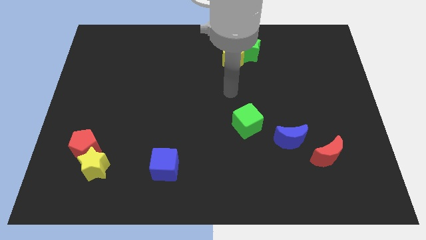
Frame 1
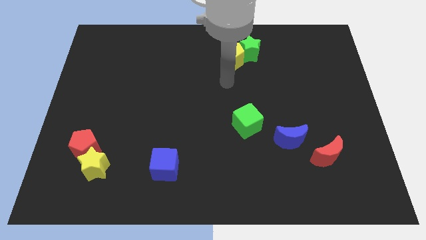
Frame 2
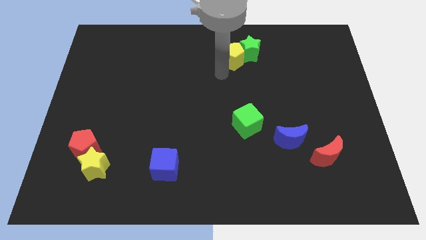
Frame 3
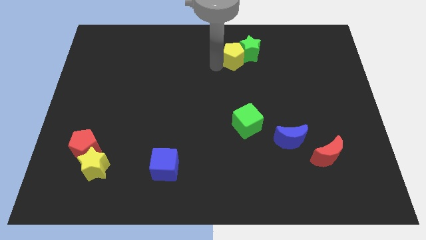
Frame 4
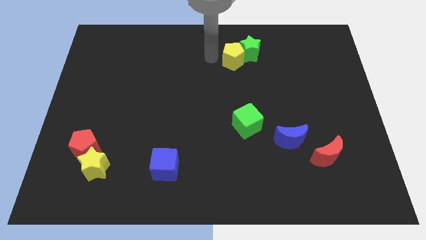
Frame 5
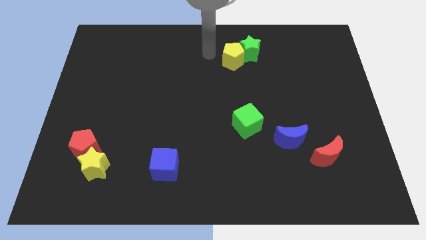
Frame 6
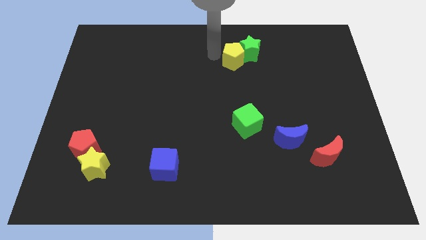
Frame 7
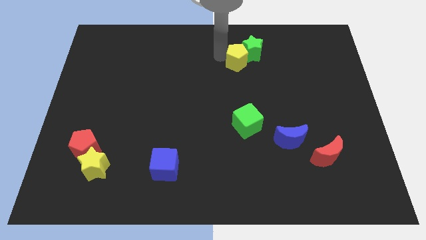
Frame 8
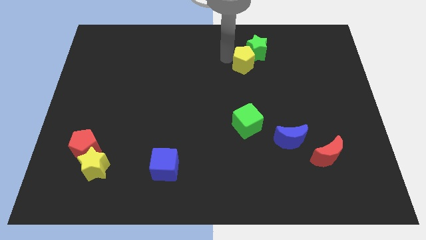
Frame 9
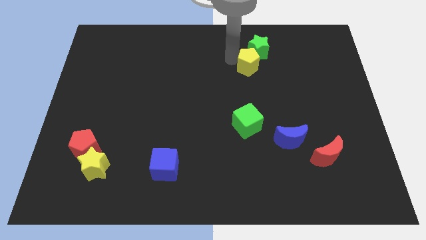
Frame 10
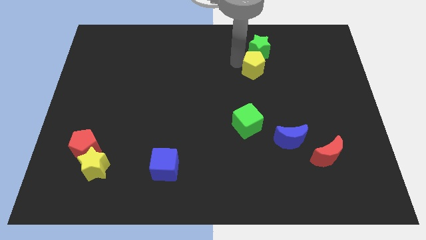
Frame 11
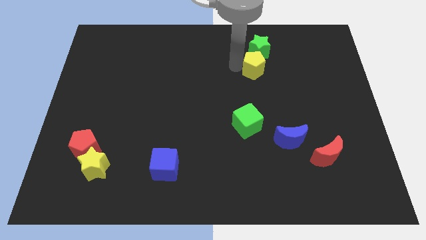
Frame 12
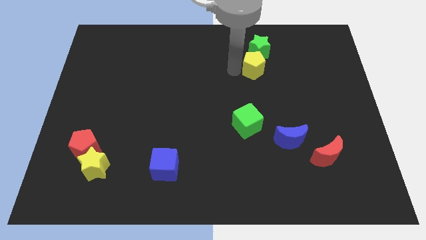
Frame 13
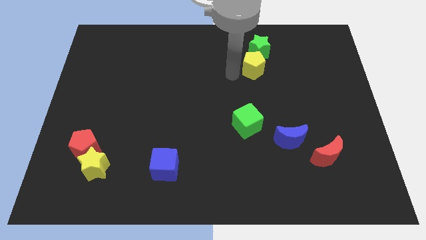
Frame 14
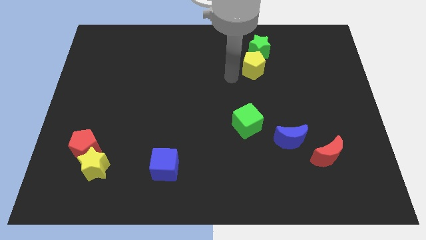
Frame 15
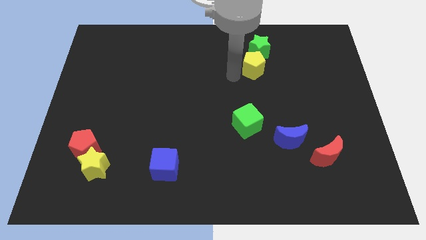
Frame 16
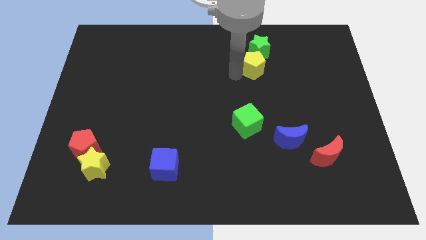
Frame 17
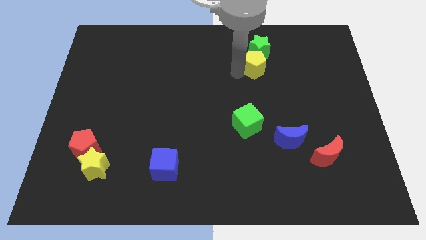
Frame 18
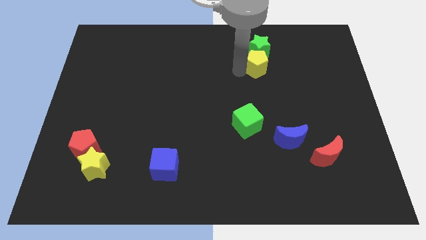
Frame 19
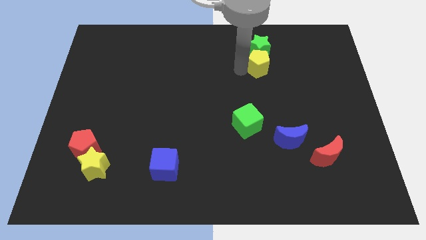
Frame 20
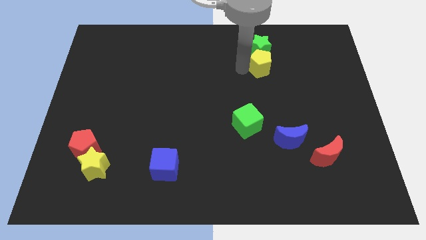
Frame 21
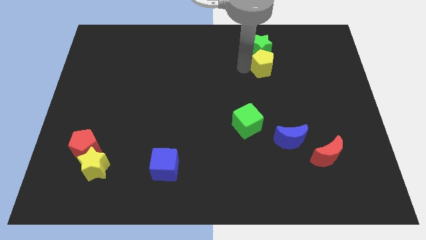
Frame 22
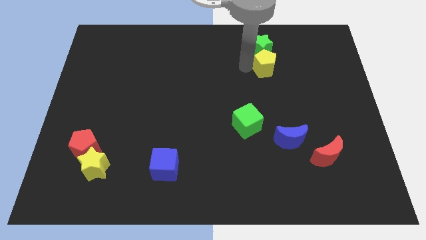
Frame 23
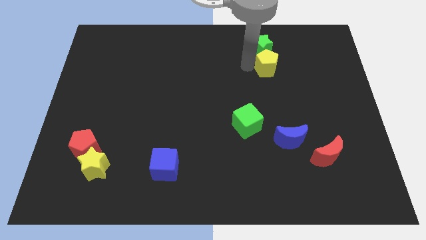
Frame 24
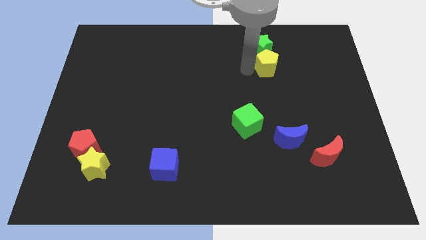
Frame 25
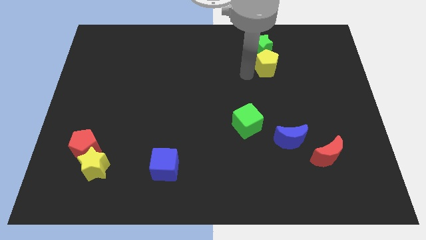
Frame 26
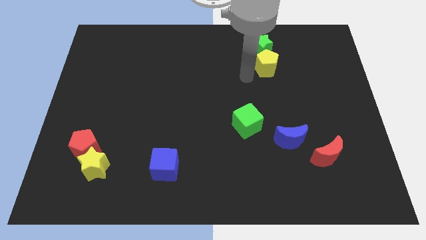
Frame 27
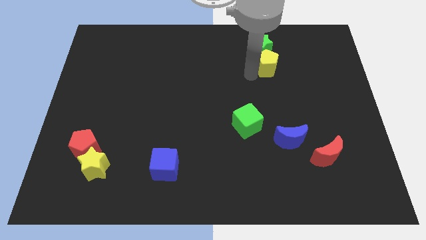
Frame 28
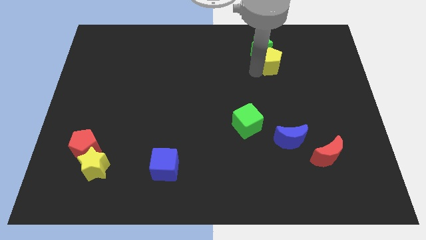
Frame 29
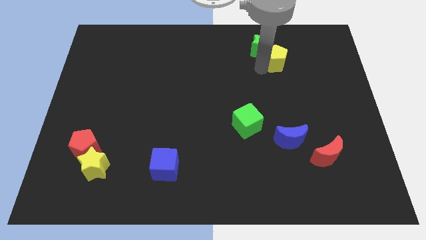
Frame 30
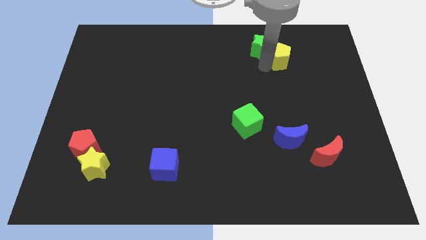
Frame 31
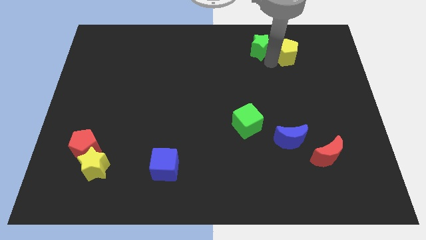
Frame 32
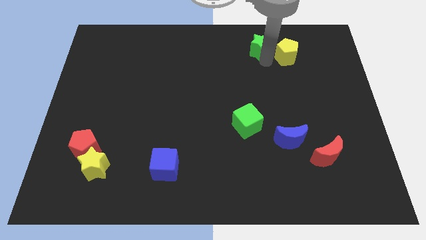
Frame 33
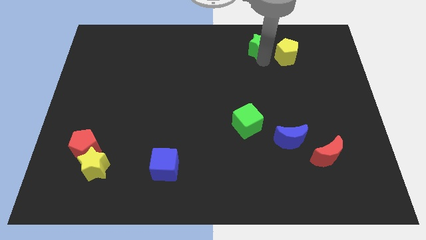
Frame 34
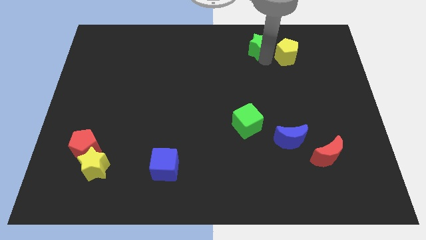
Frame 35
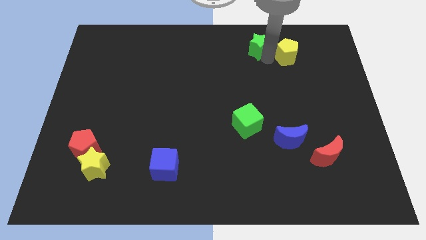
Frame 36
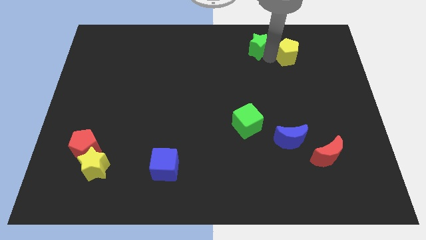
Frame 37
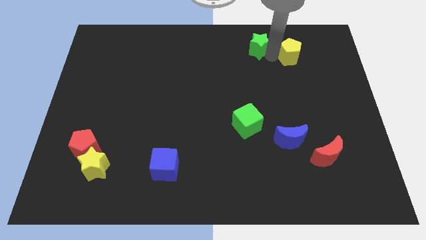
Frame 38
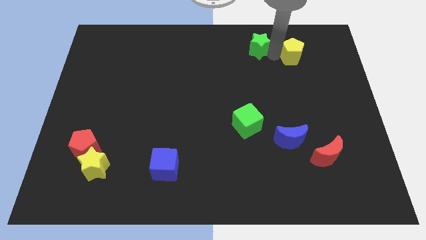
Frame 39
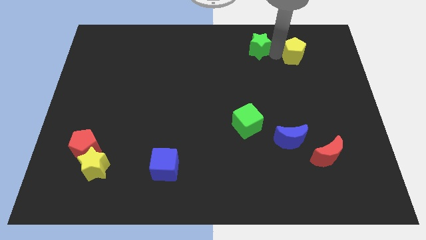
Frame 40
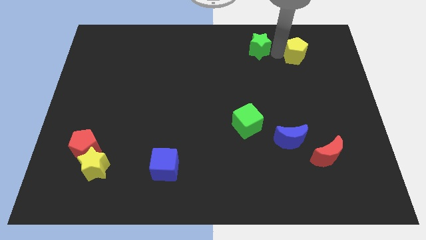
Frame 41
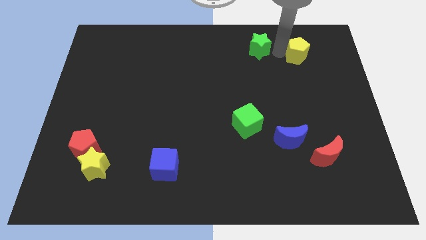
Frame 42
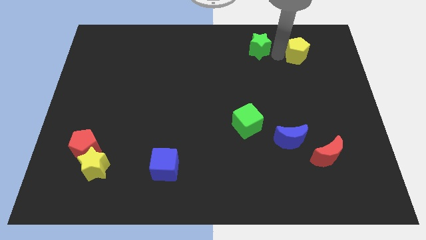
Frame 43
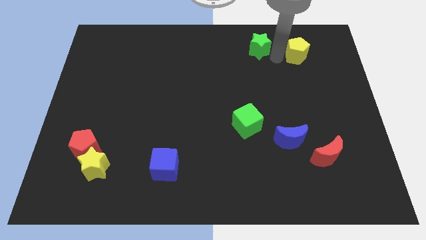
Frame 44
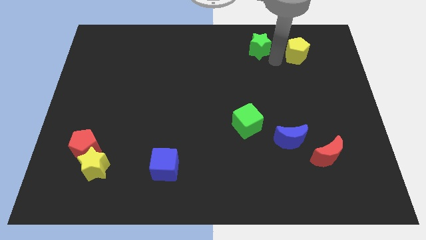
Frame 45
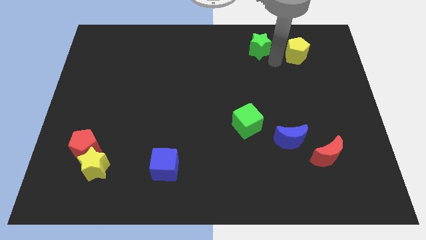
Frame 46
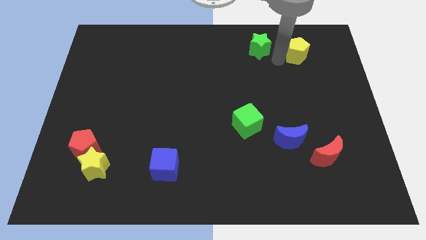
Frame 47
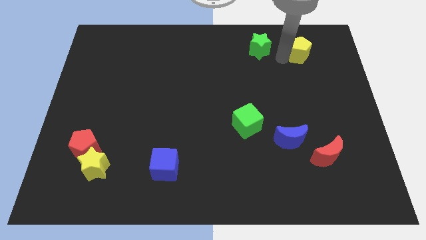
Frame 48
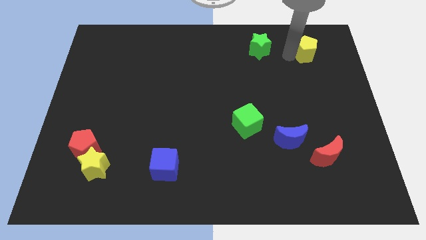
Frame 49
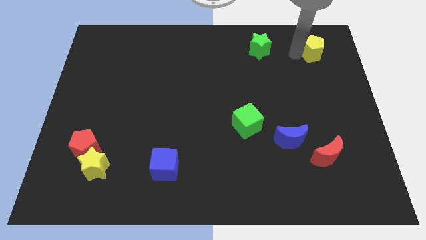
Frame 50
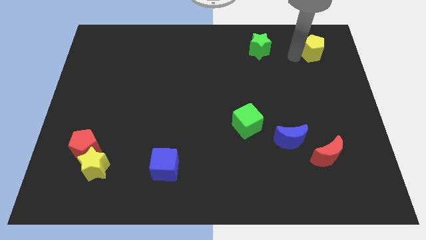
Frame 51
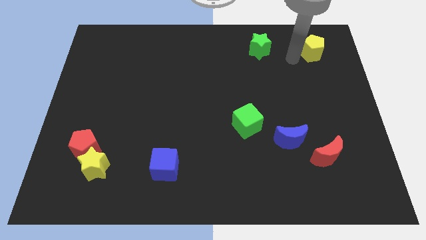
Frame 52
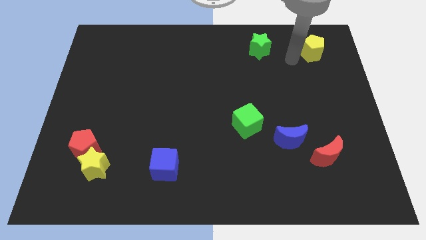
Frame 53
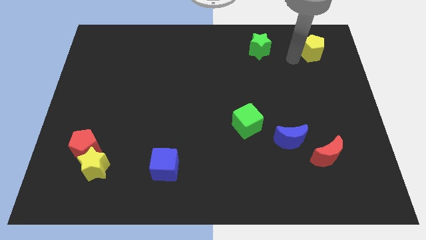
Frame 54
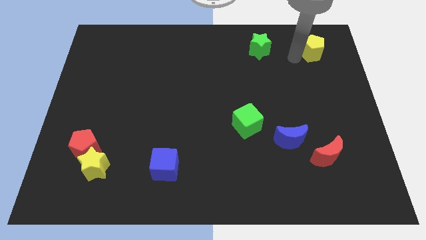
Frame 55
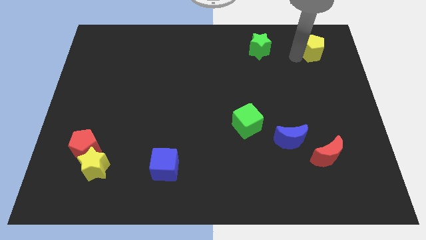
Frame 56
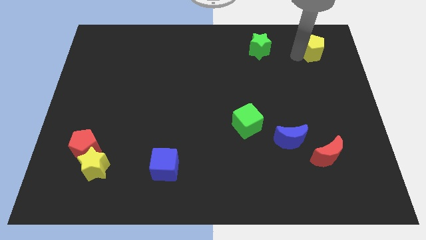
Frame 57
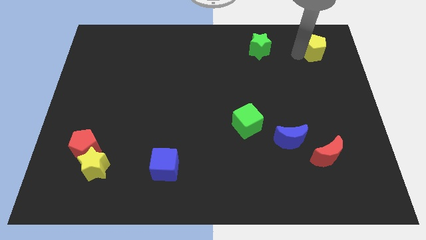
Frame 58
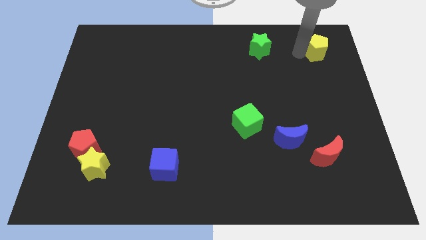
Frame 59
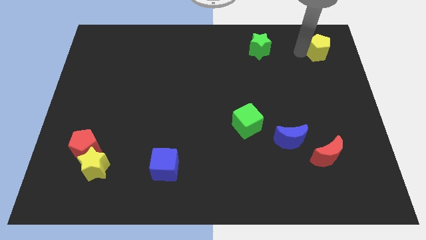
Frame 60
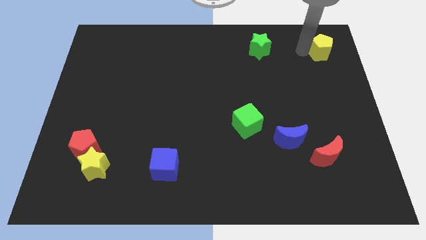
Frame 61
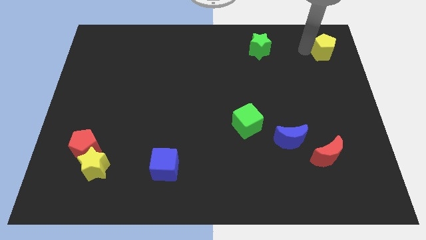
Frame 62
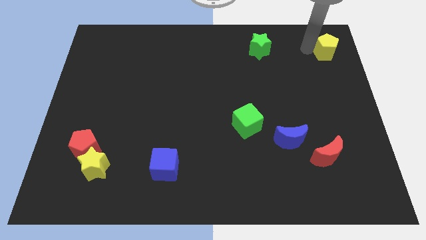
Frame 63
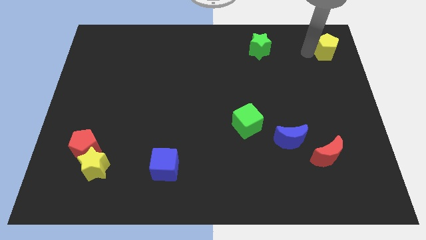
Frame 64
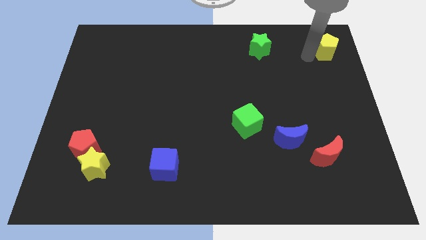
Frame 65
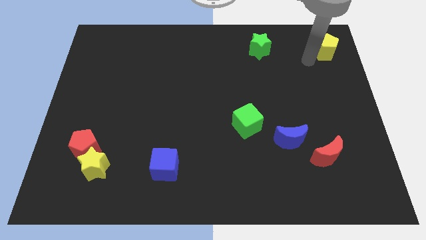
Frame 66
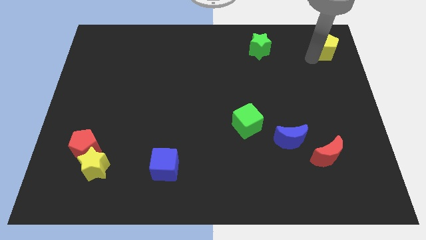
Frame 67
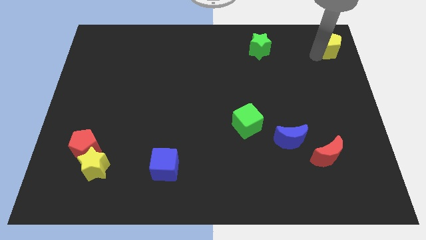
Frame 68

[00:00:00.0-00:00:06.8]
slide the yellow pentagon to the top right corner

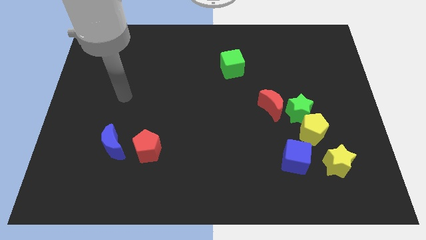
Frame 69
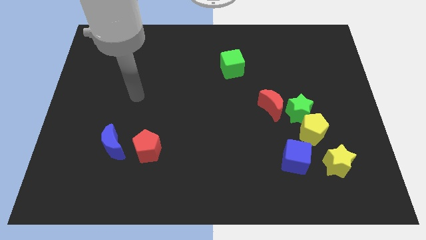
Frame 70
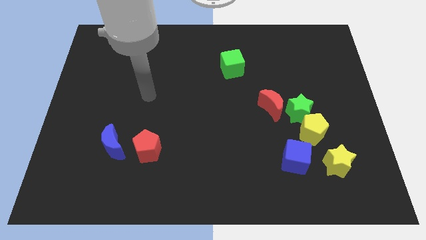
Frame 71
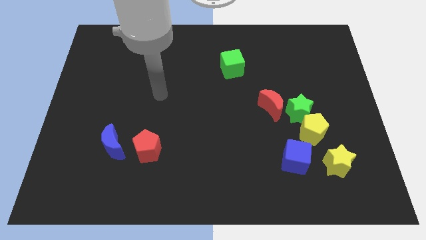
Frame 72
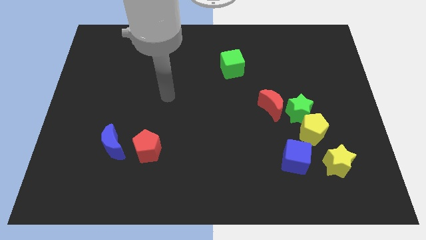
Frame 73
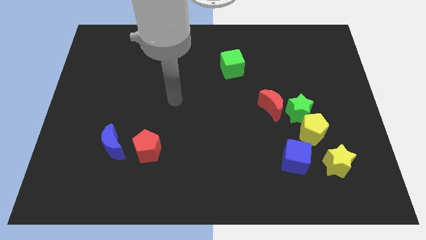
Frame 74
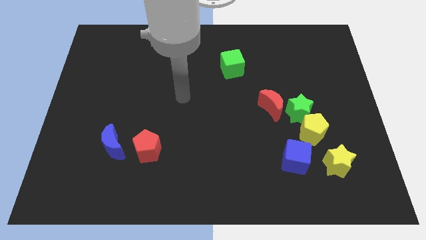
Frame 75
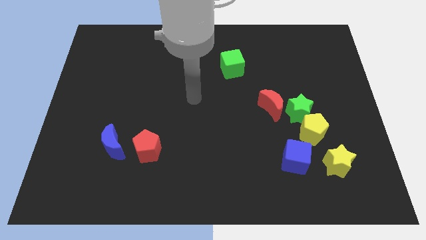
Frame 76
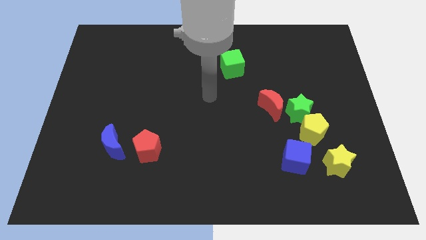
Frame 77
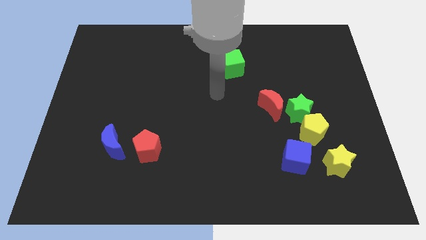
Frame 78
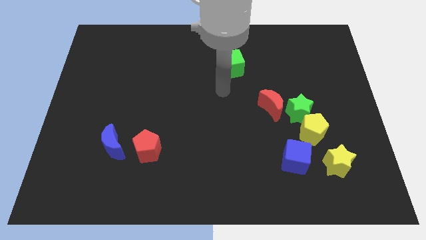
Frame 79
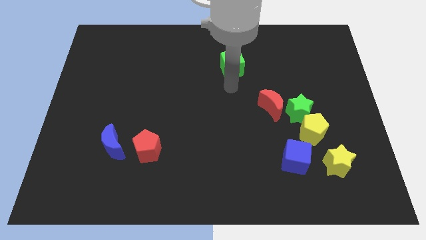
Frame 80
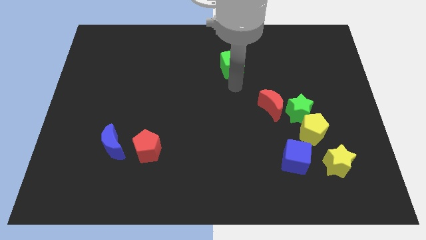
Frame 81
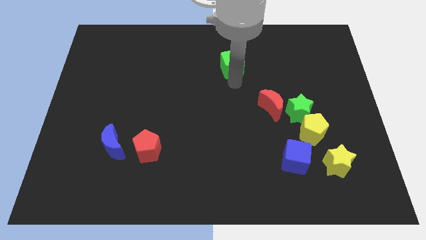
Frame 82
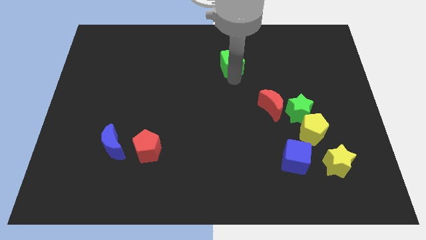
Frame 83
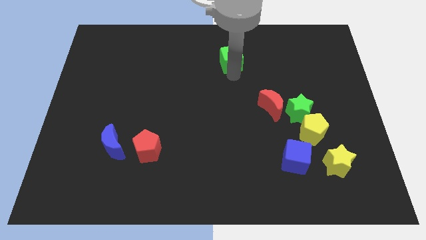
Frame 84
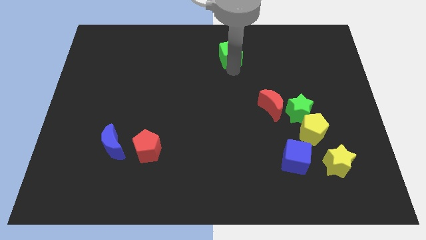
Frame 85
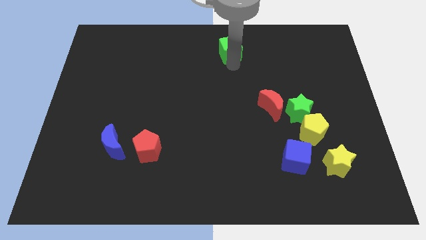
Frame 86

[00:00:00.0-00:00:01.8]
put the green cube to the towards your base
